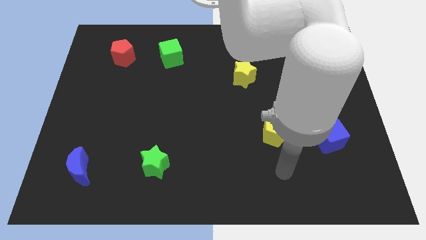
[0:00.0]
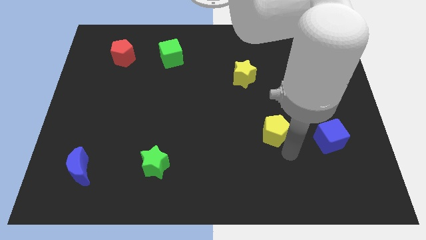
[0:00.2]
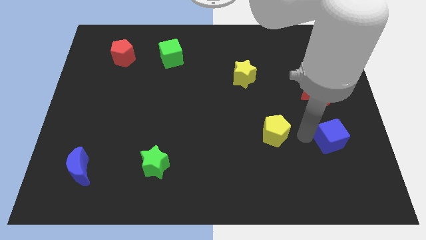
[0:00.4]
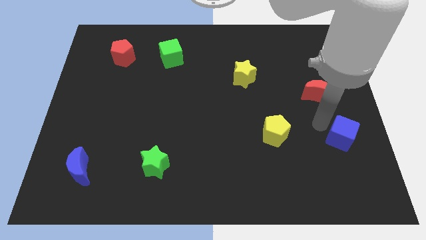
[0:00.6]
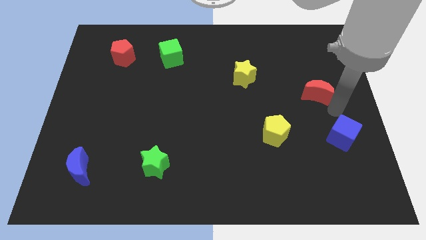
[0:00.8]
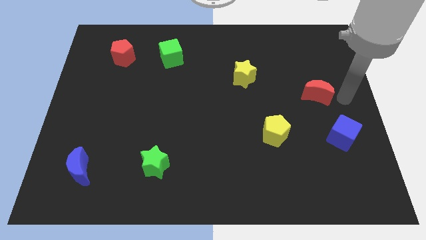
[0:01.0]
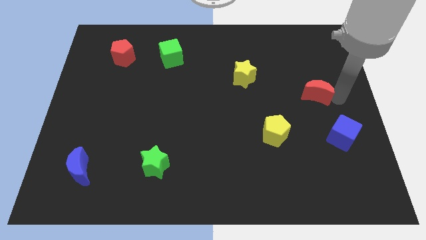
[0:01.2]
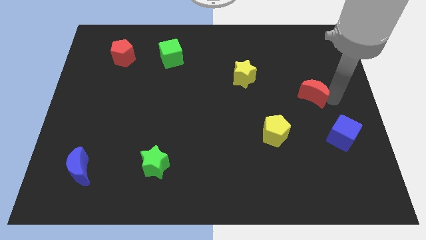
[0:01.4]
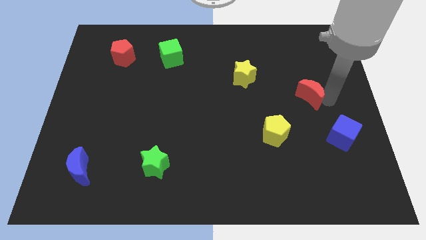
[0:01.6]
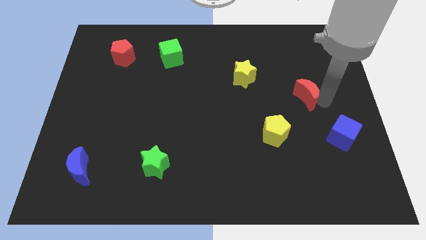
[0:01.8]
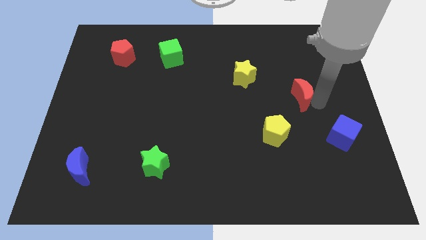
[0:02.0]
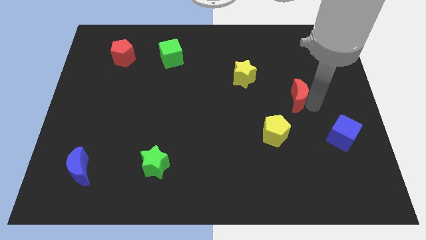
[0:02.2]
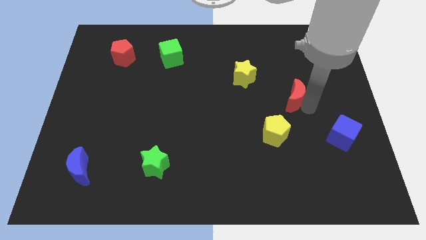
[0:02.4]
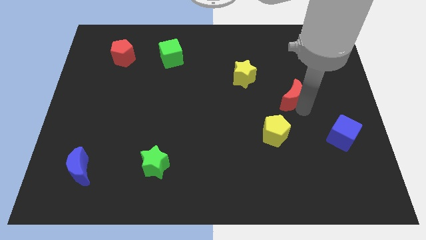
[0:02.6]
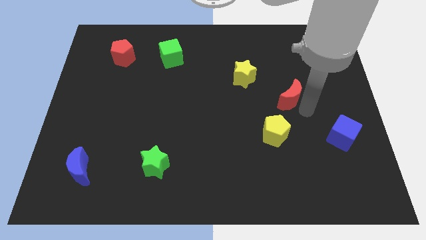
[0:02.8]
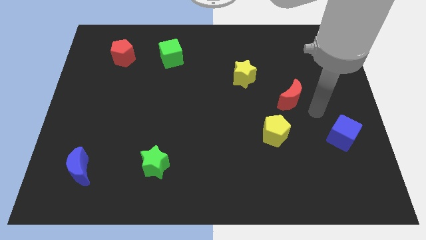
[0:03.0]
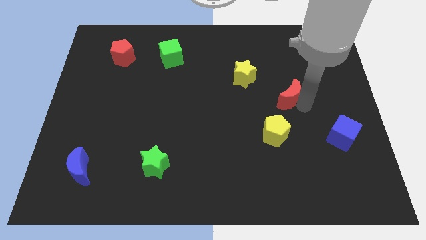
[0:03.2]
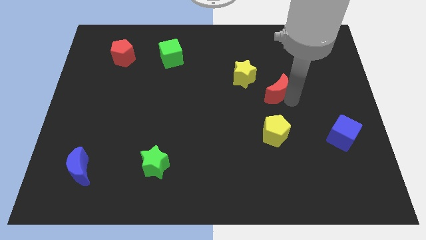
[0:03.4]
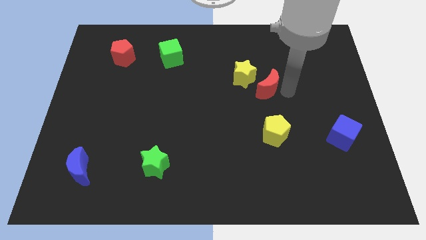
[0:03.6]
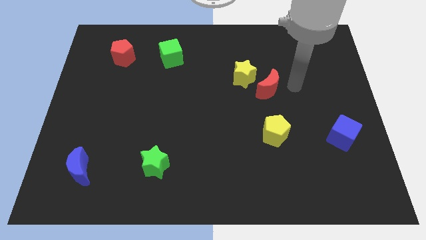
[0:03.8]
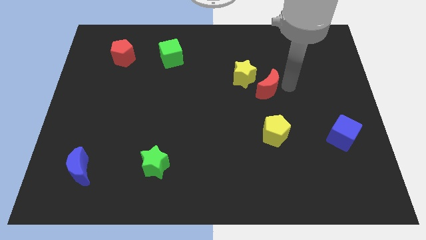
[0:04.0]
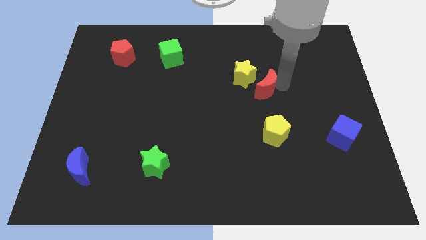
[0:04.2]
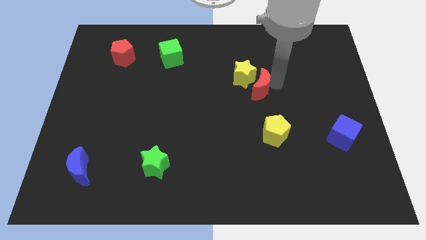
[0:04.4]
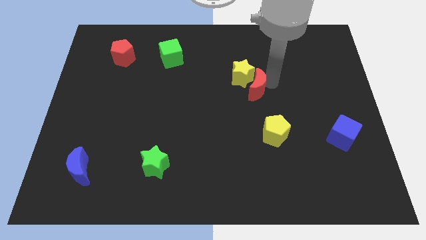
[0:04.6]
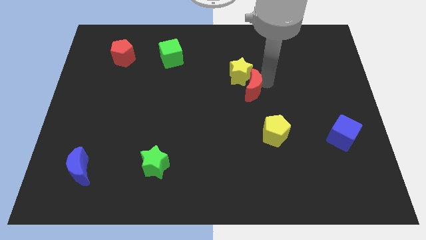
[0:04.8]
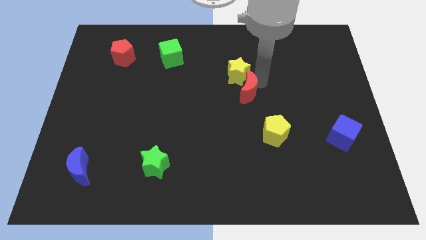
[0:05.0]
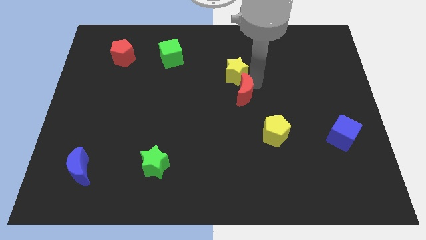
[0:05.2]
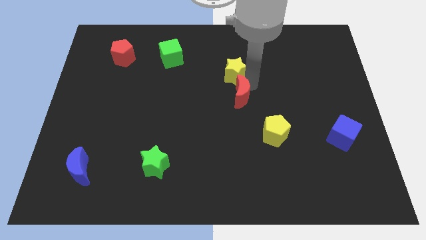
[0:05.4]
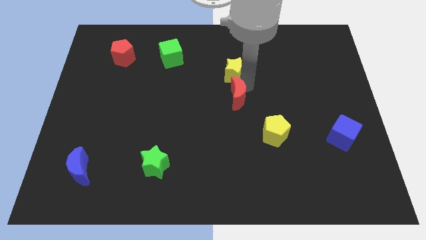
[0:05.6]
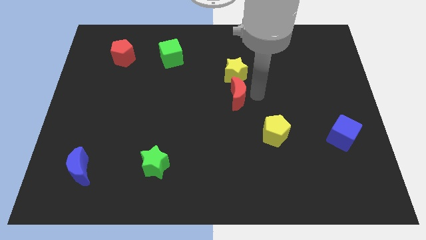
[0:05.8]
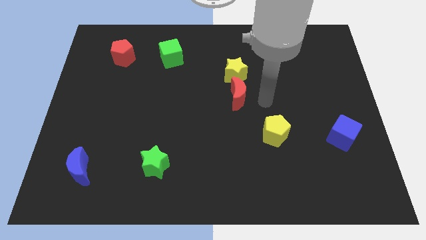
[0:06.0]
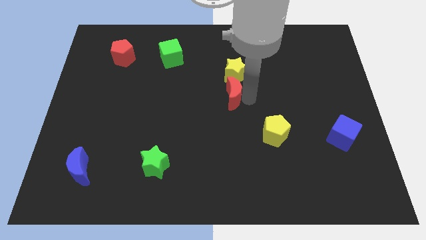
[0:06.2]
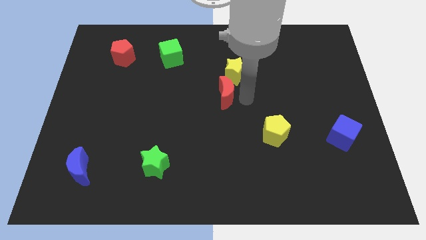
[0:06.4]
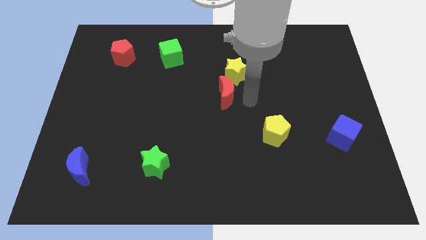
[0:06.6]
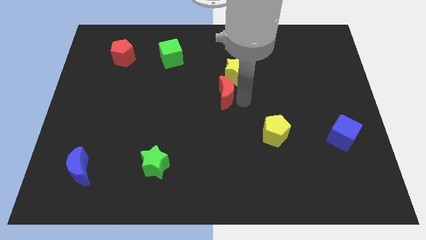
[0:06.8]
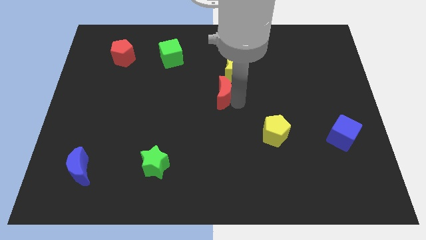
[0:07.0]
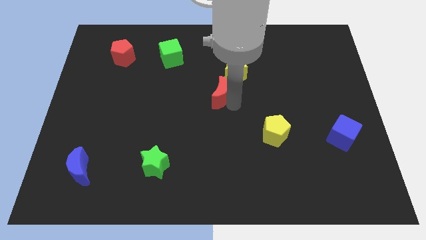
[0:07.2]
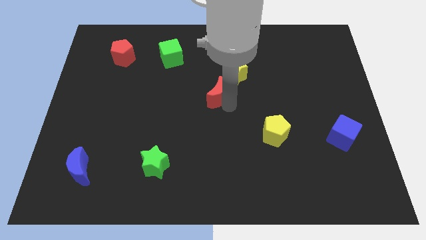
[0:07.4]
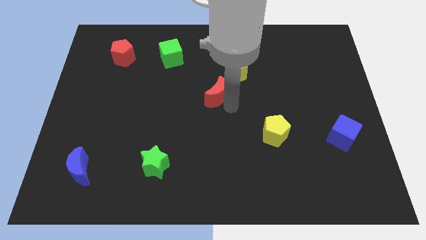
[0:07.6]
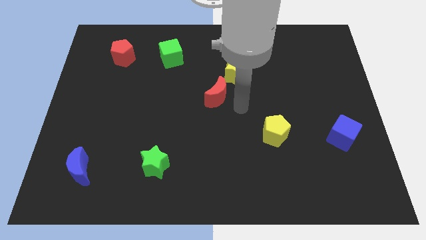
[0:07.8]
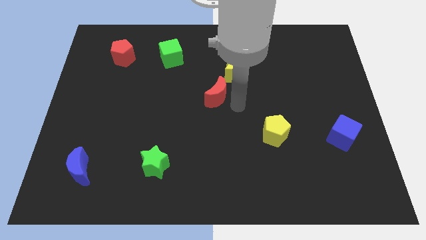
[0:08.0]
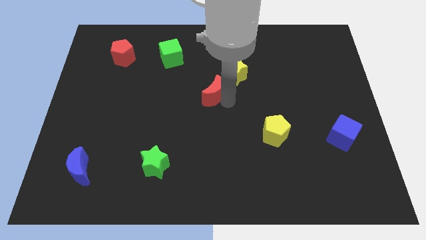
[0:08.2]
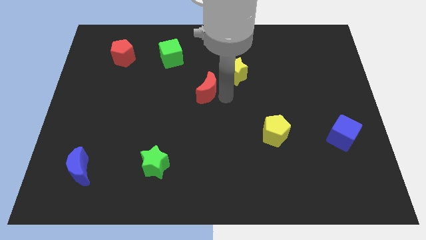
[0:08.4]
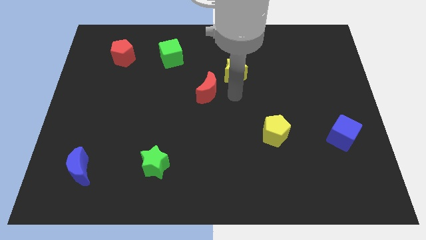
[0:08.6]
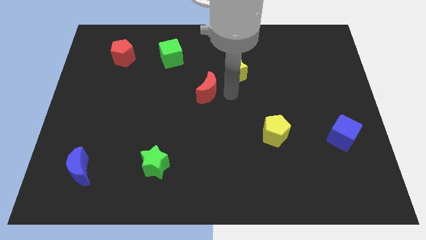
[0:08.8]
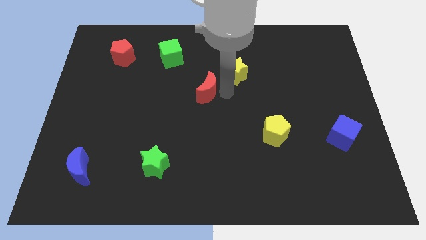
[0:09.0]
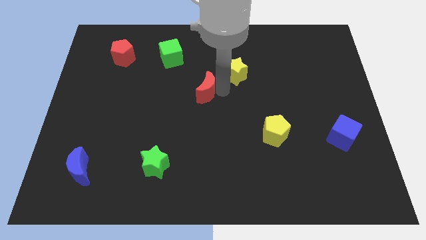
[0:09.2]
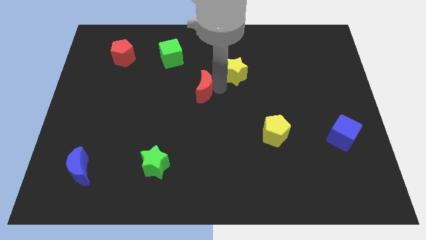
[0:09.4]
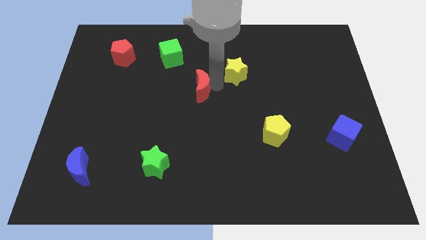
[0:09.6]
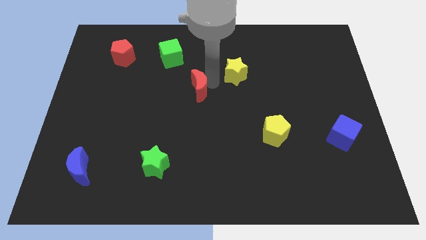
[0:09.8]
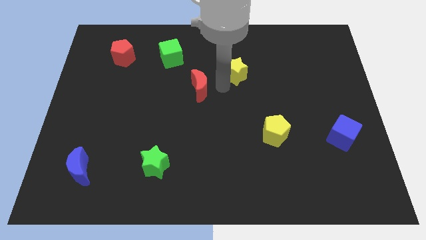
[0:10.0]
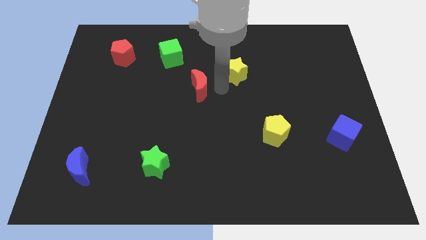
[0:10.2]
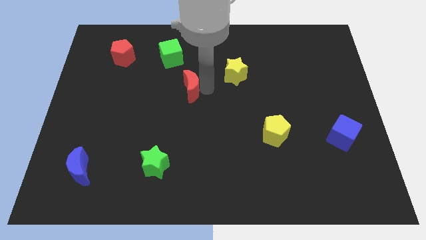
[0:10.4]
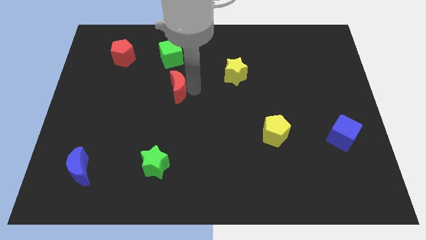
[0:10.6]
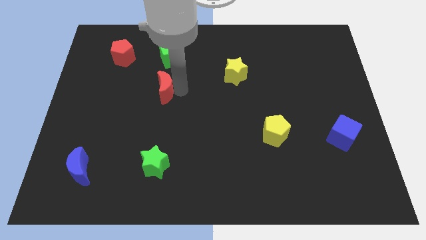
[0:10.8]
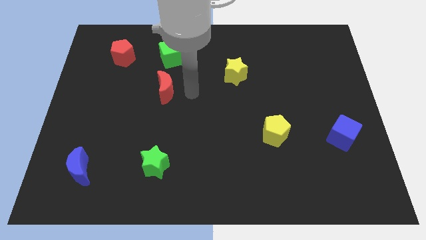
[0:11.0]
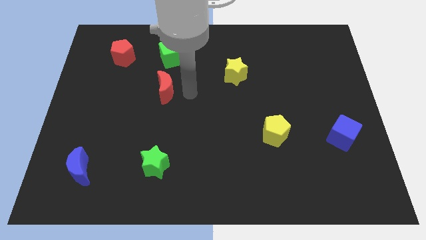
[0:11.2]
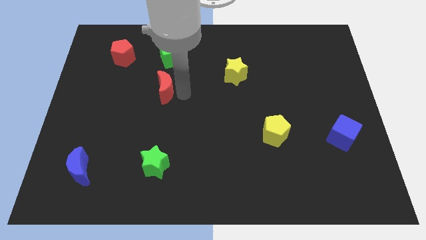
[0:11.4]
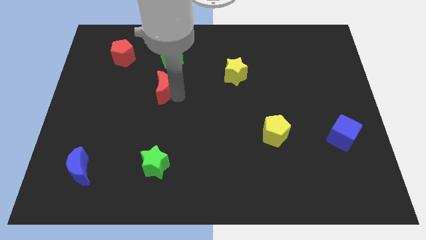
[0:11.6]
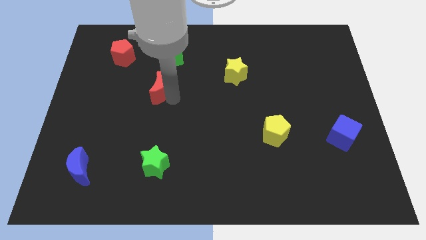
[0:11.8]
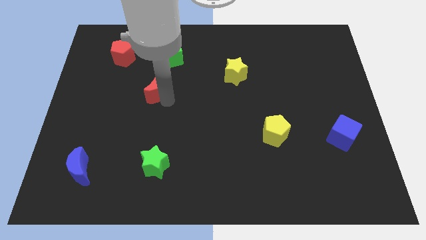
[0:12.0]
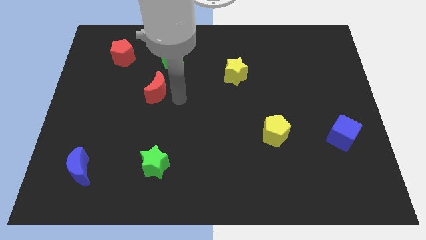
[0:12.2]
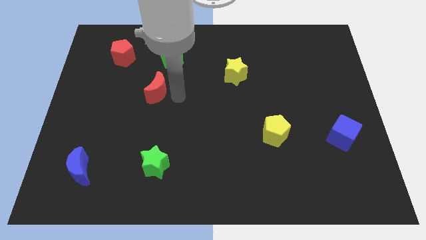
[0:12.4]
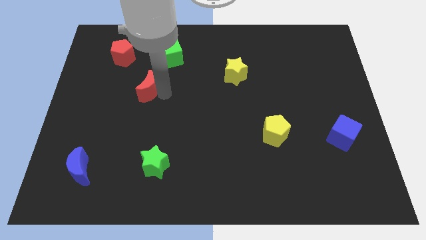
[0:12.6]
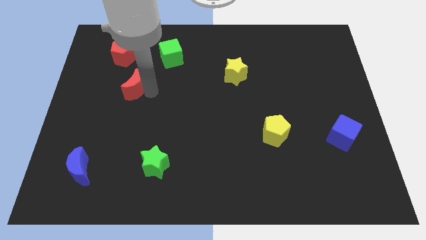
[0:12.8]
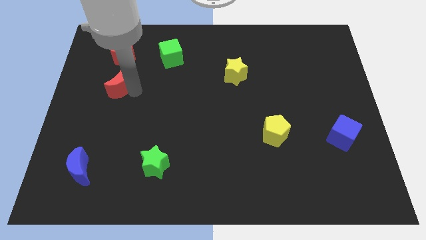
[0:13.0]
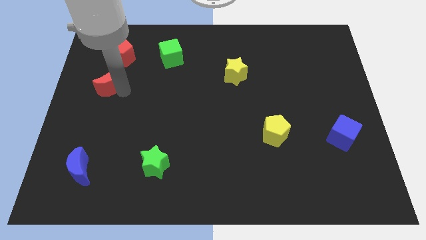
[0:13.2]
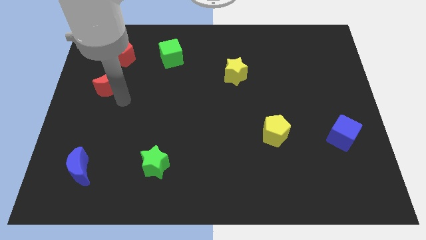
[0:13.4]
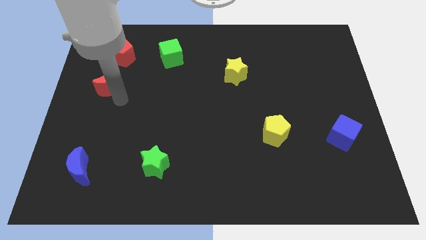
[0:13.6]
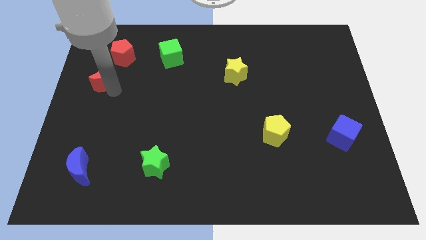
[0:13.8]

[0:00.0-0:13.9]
move the red moon diagonally down and to the left of the red pentagon

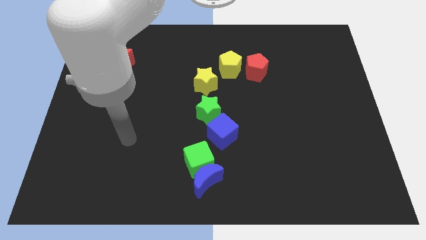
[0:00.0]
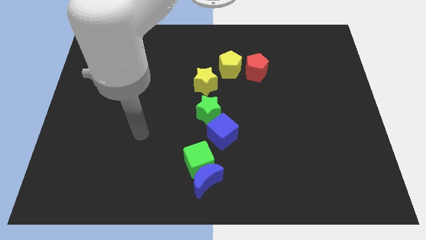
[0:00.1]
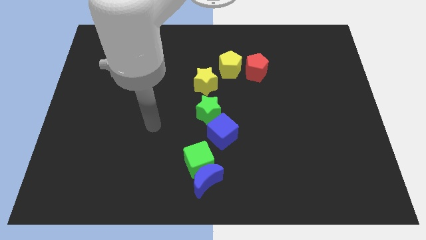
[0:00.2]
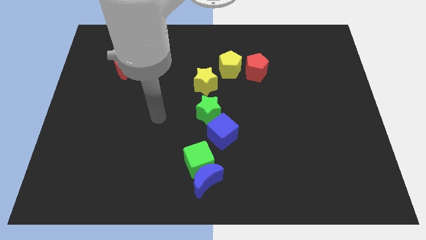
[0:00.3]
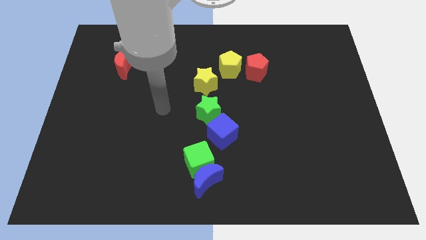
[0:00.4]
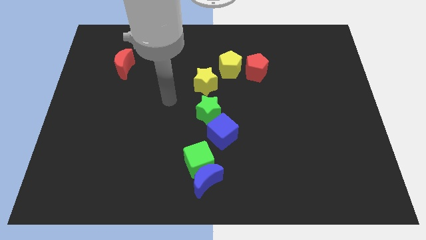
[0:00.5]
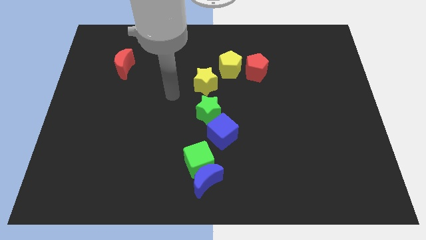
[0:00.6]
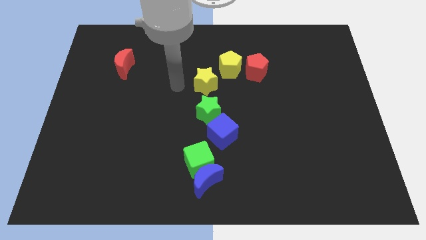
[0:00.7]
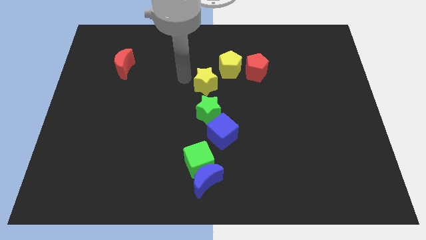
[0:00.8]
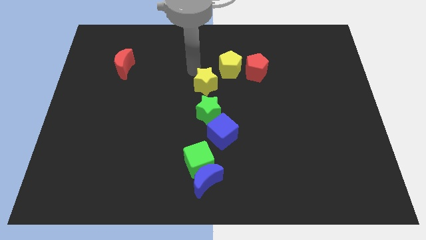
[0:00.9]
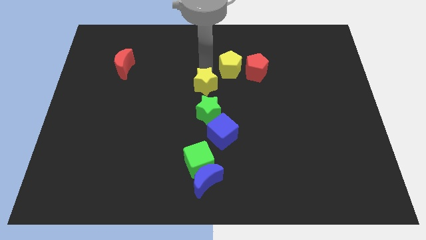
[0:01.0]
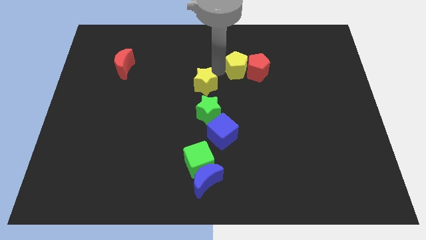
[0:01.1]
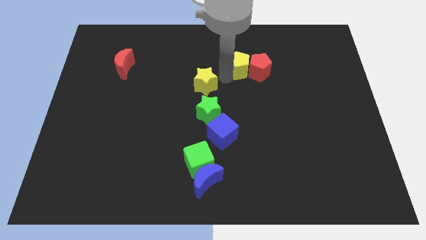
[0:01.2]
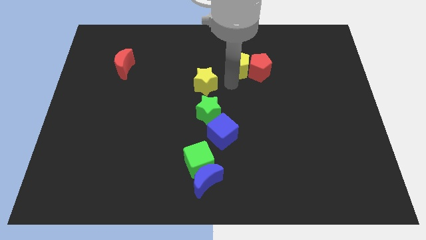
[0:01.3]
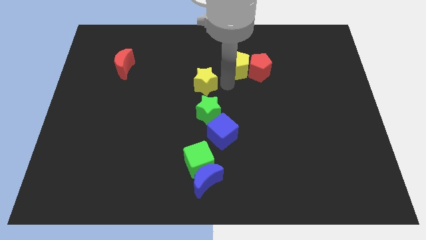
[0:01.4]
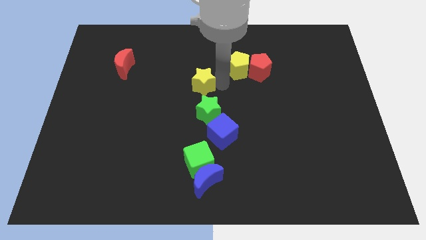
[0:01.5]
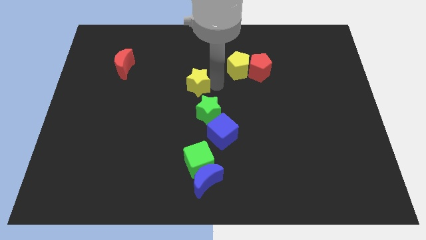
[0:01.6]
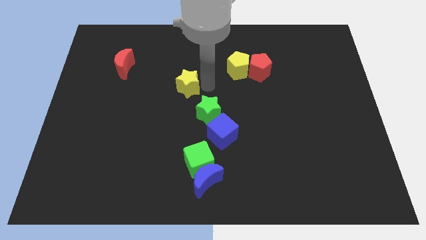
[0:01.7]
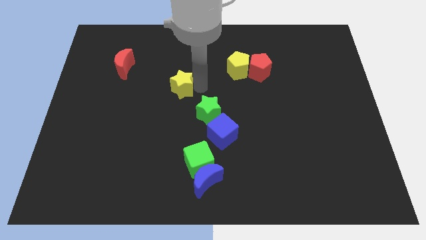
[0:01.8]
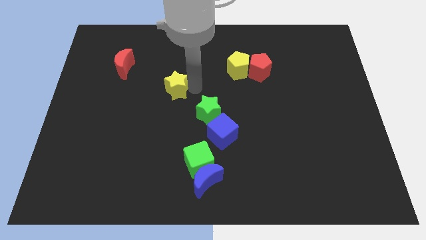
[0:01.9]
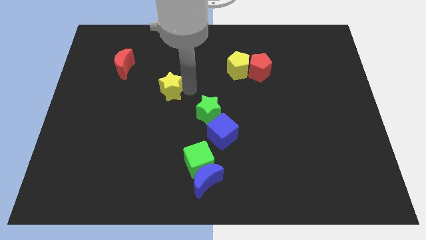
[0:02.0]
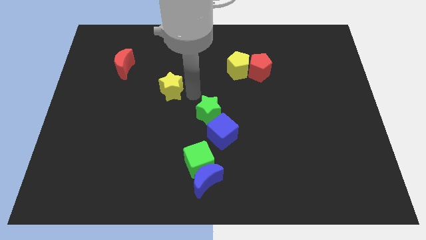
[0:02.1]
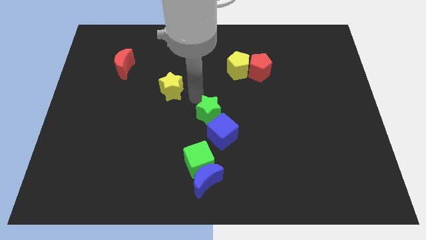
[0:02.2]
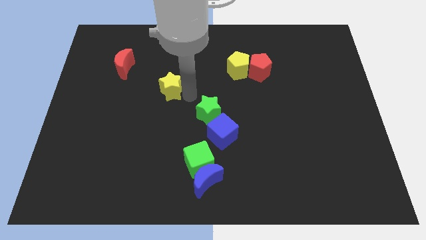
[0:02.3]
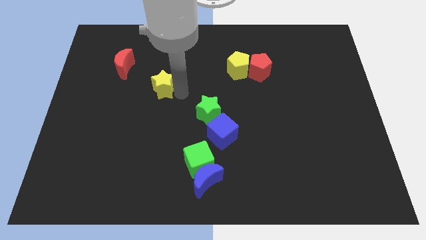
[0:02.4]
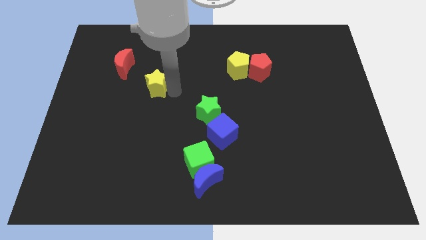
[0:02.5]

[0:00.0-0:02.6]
slide the yellow star to the bottom right side of the red moon
